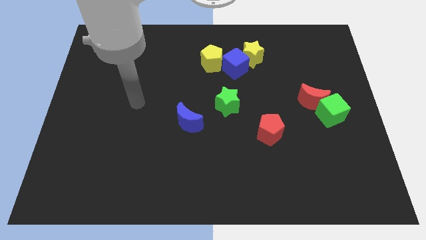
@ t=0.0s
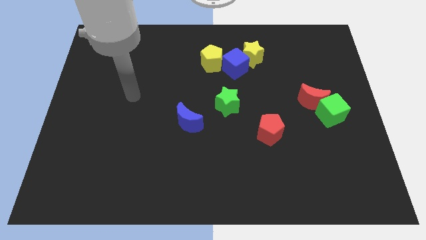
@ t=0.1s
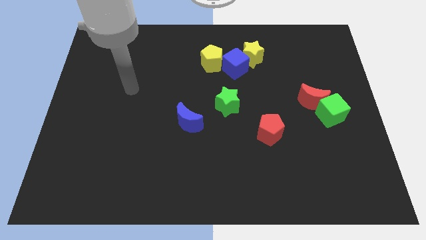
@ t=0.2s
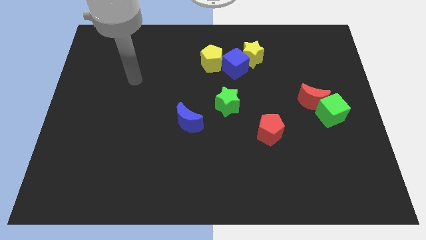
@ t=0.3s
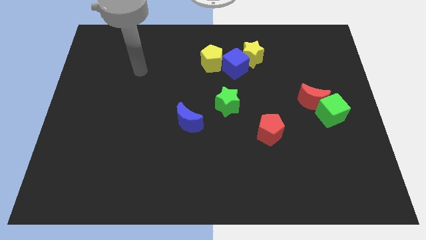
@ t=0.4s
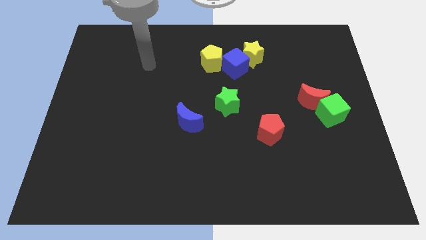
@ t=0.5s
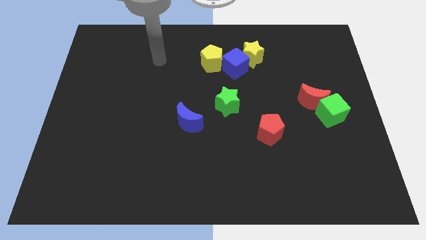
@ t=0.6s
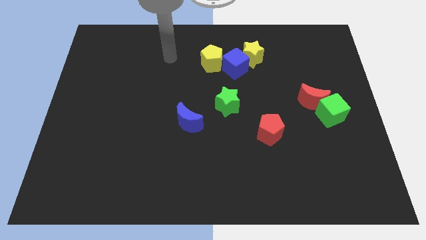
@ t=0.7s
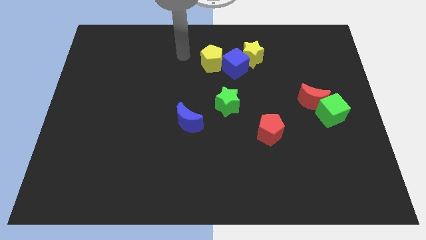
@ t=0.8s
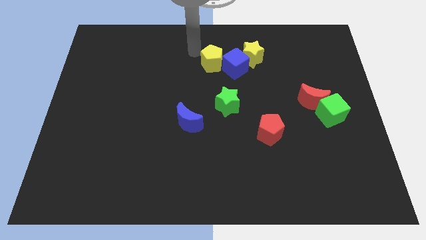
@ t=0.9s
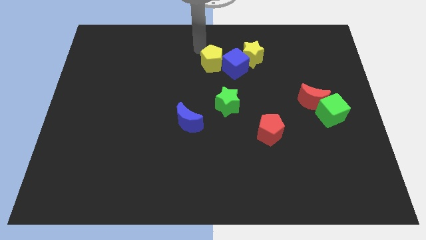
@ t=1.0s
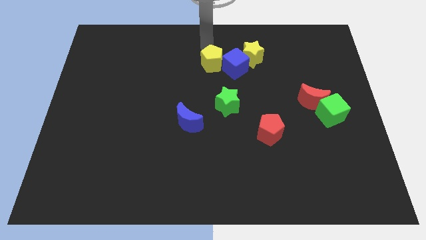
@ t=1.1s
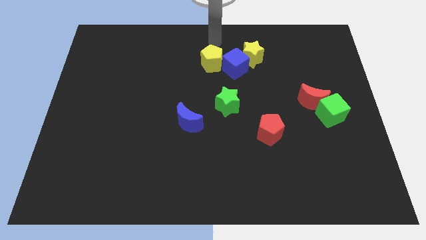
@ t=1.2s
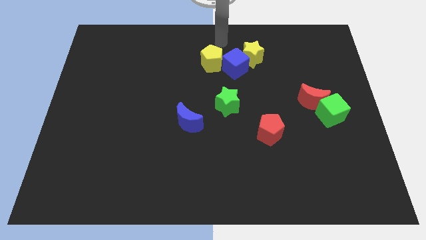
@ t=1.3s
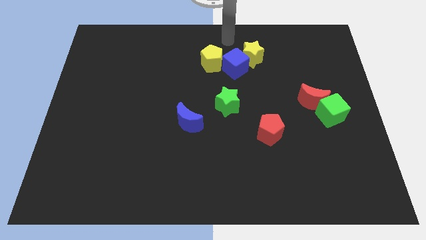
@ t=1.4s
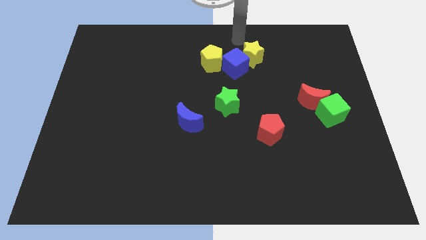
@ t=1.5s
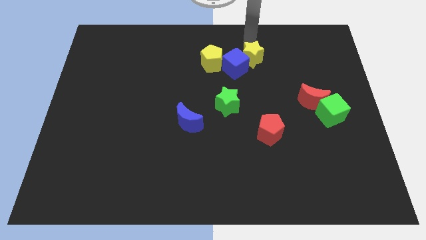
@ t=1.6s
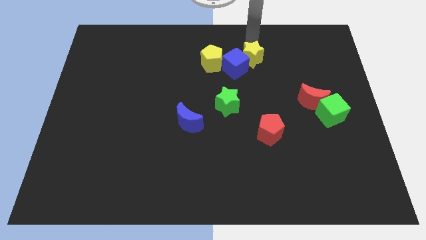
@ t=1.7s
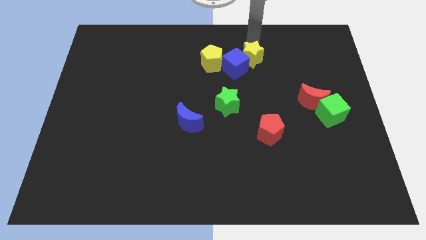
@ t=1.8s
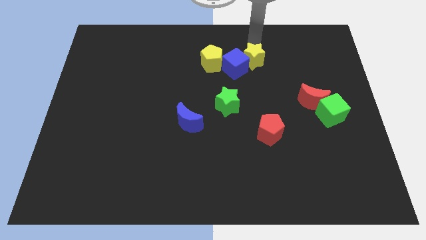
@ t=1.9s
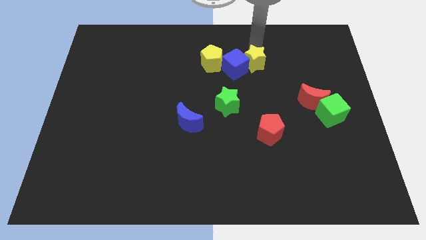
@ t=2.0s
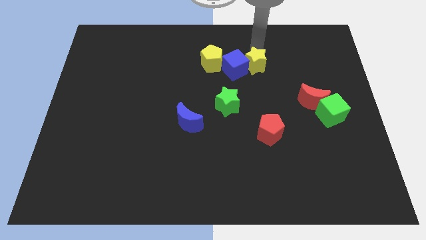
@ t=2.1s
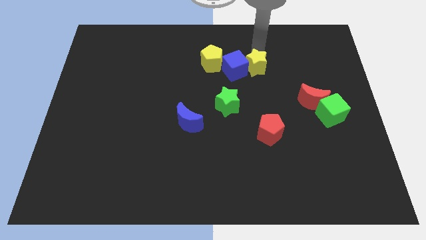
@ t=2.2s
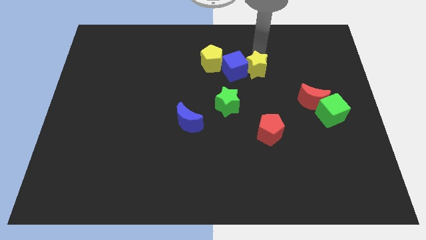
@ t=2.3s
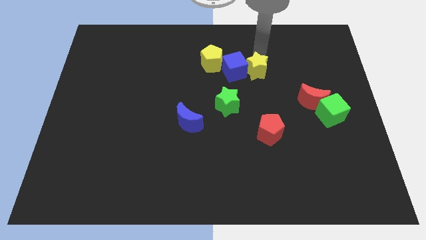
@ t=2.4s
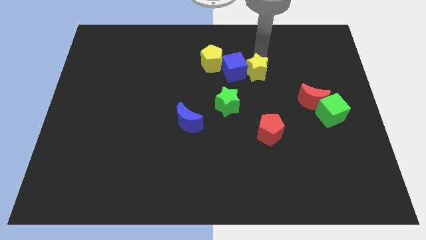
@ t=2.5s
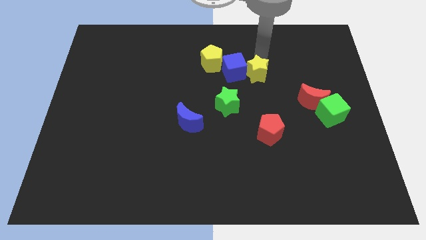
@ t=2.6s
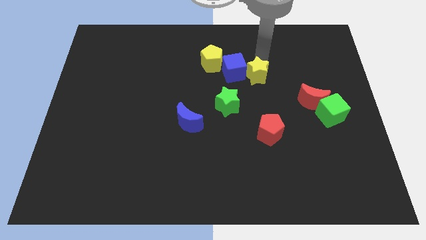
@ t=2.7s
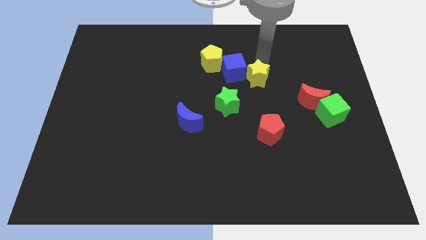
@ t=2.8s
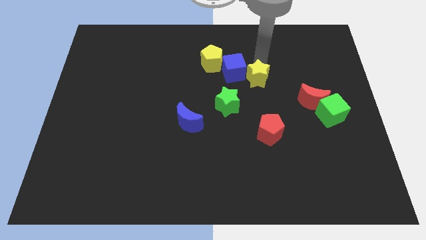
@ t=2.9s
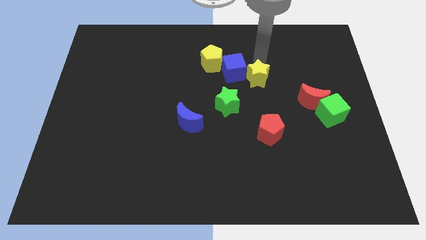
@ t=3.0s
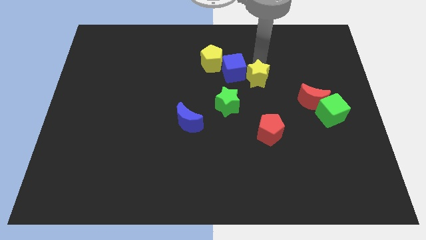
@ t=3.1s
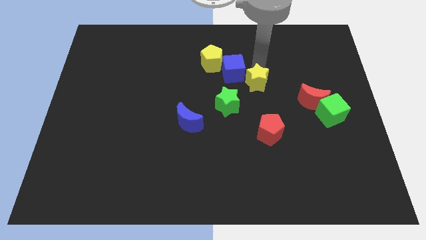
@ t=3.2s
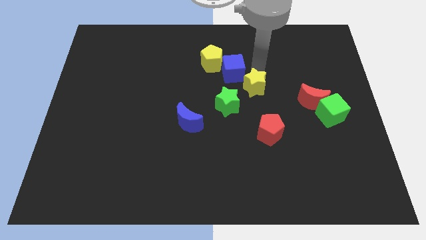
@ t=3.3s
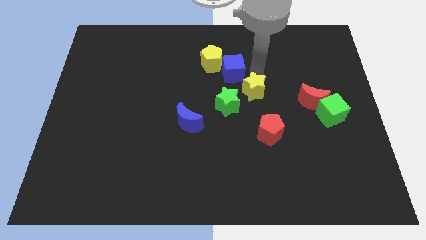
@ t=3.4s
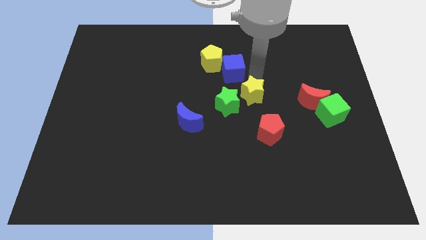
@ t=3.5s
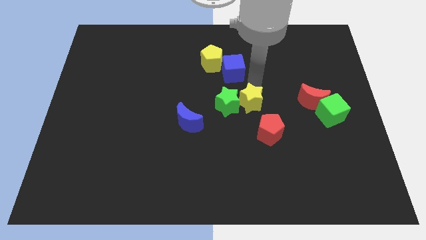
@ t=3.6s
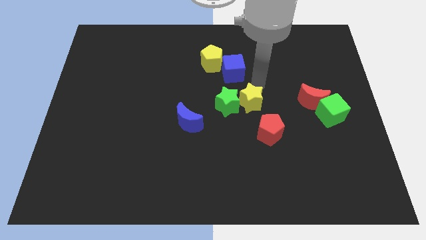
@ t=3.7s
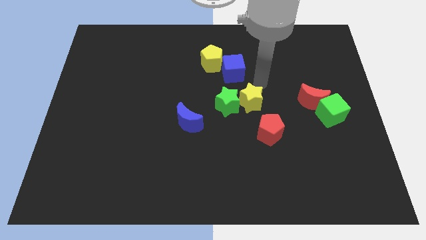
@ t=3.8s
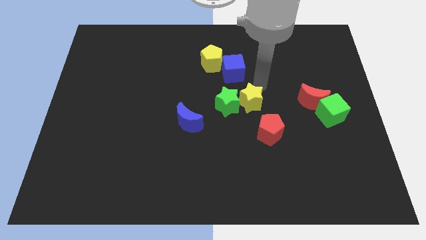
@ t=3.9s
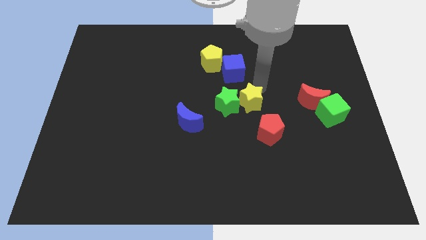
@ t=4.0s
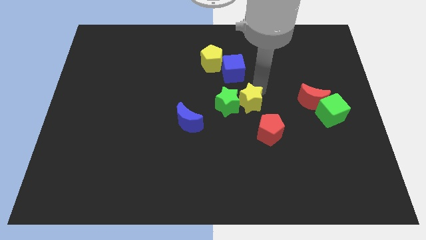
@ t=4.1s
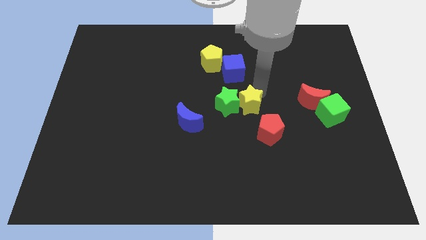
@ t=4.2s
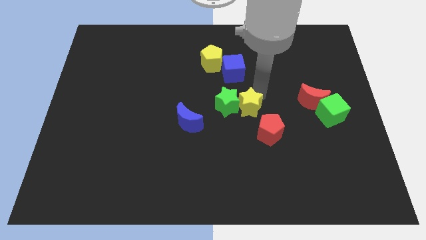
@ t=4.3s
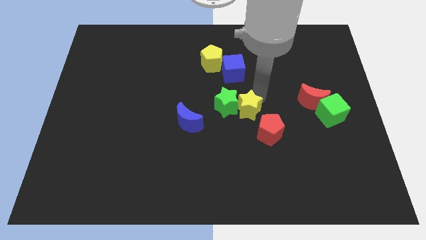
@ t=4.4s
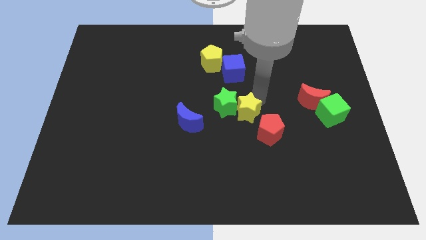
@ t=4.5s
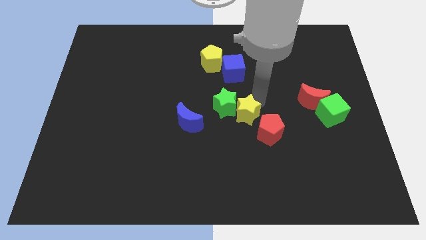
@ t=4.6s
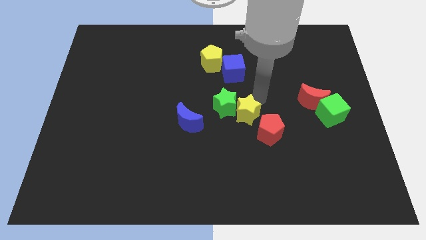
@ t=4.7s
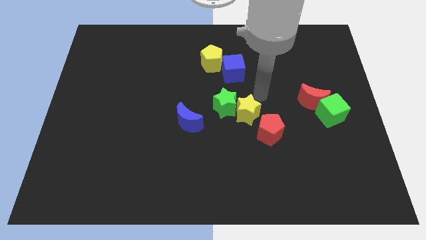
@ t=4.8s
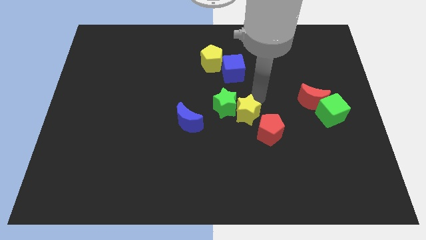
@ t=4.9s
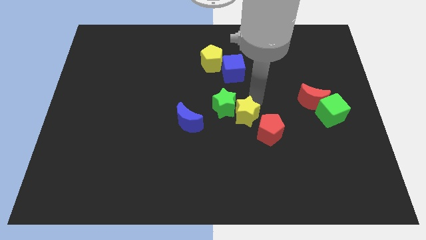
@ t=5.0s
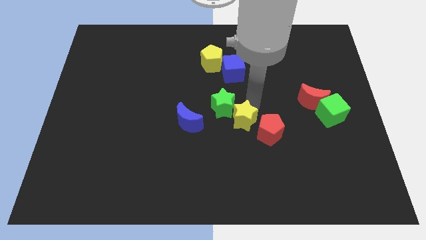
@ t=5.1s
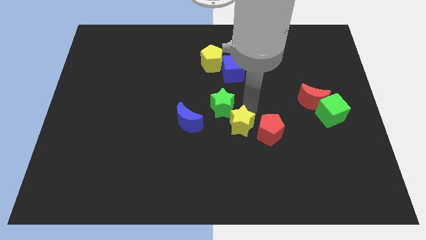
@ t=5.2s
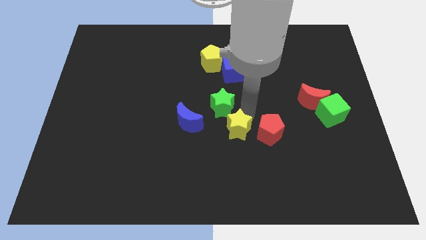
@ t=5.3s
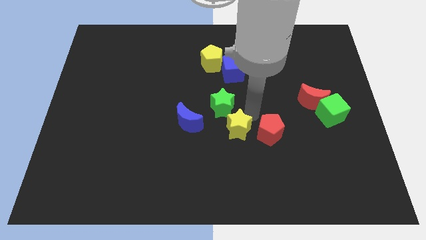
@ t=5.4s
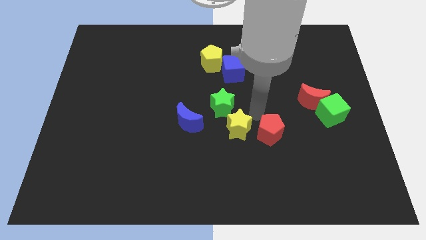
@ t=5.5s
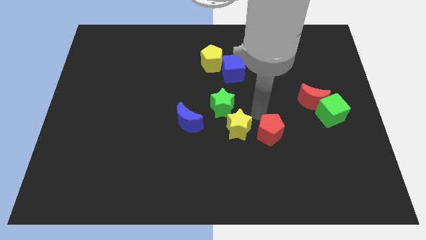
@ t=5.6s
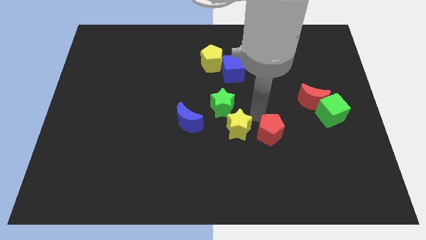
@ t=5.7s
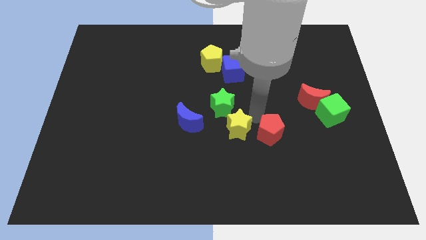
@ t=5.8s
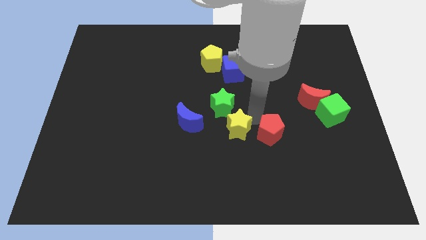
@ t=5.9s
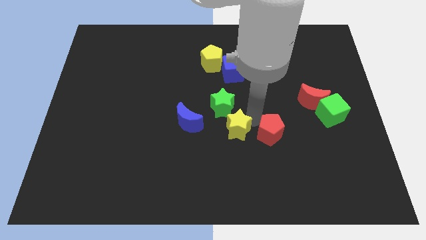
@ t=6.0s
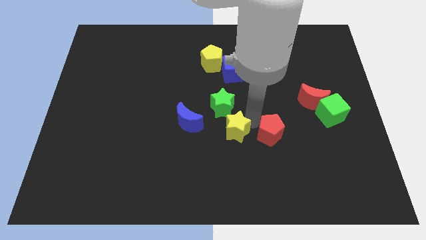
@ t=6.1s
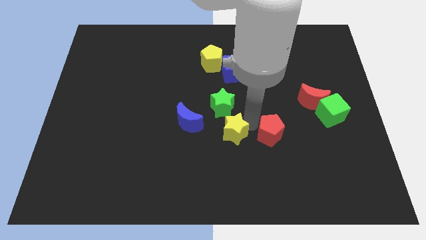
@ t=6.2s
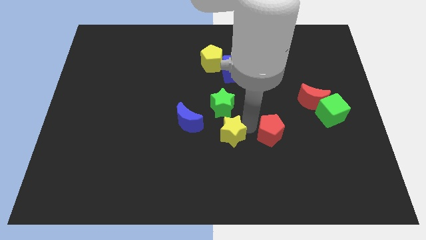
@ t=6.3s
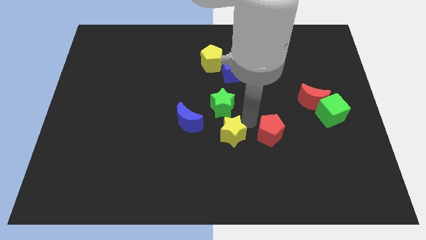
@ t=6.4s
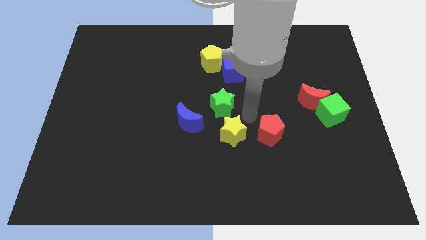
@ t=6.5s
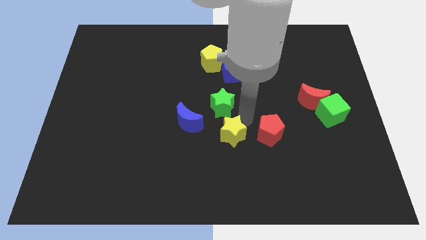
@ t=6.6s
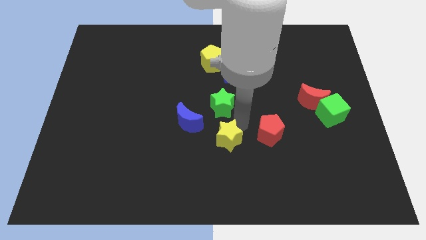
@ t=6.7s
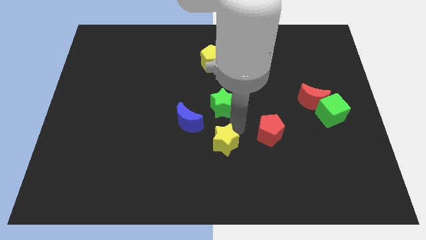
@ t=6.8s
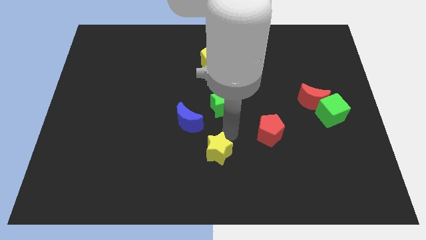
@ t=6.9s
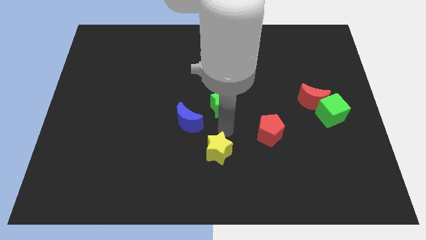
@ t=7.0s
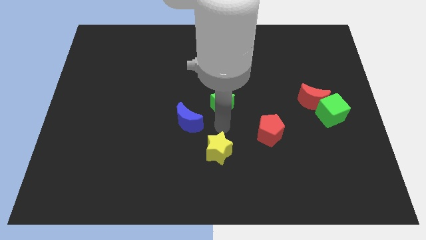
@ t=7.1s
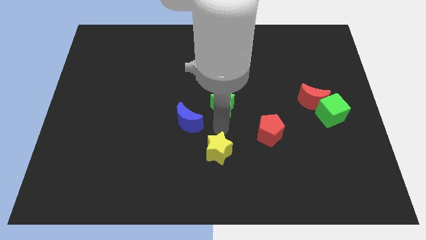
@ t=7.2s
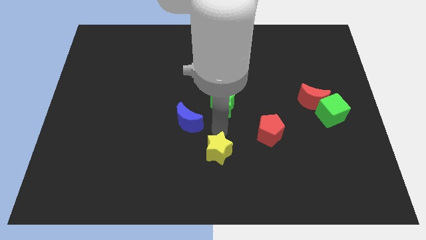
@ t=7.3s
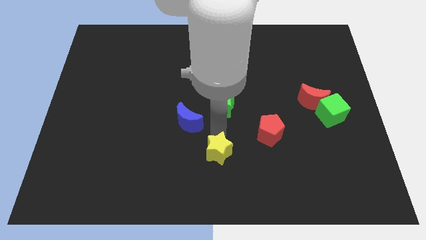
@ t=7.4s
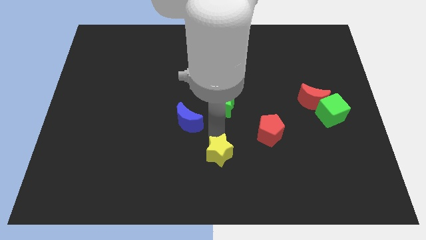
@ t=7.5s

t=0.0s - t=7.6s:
push the yellow star to the bottom side
